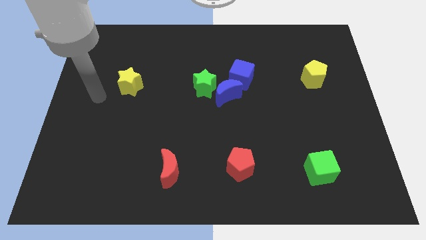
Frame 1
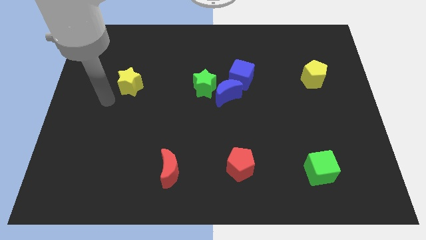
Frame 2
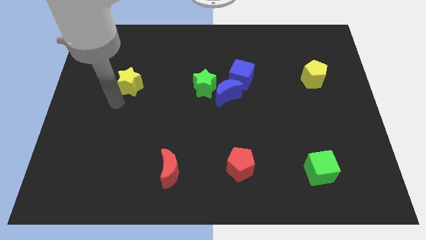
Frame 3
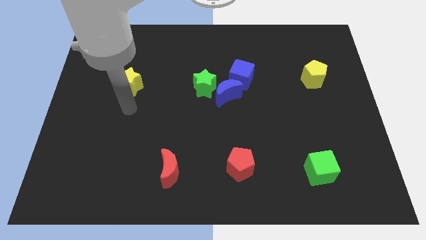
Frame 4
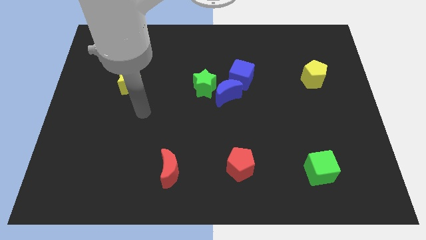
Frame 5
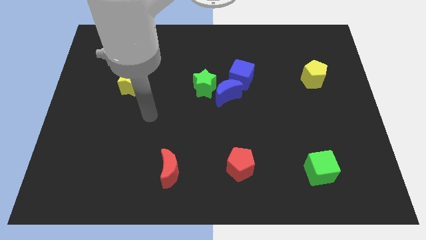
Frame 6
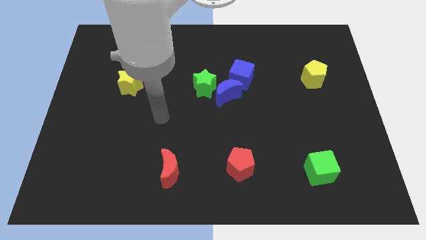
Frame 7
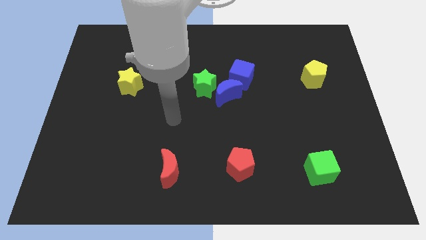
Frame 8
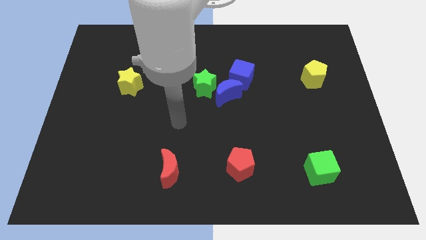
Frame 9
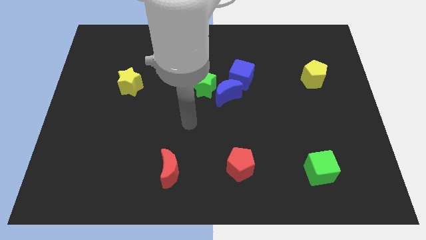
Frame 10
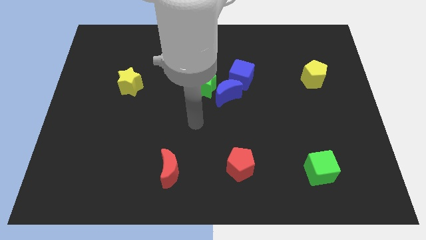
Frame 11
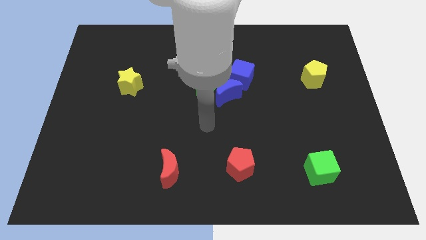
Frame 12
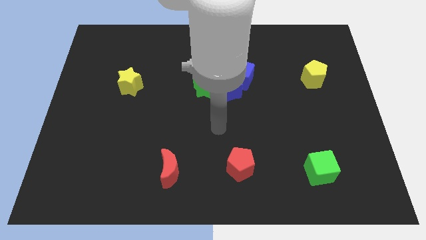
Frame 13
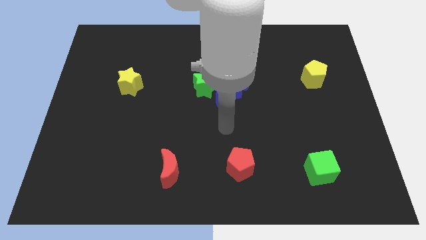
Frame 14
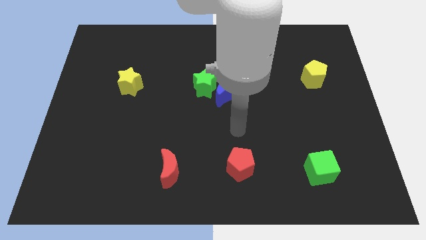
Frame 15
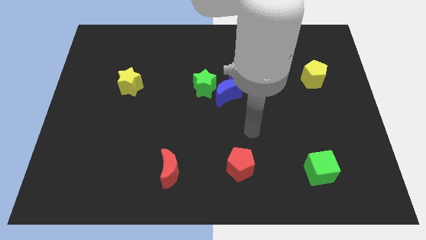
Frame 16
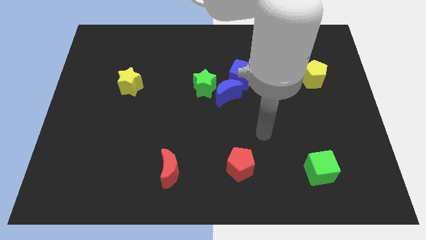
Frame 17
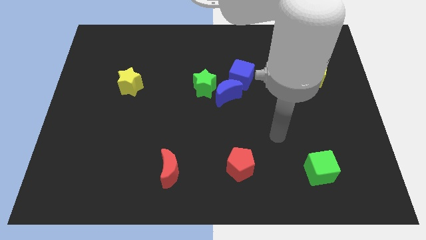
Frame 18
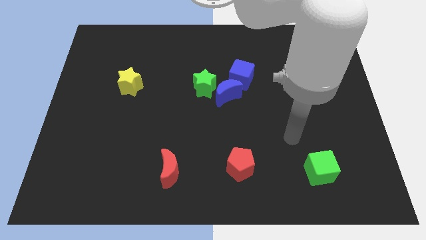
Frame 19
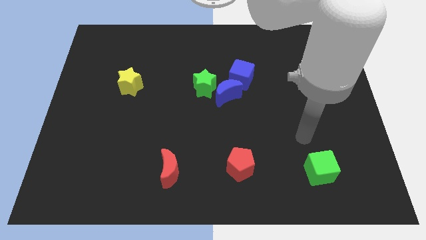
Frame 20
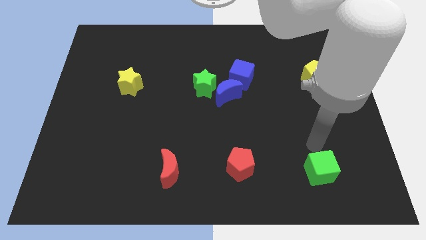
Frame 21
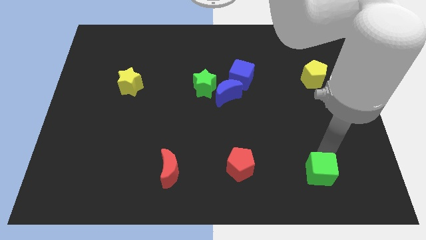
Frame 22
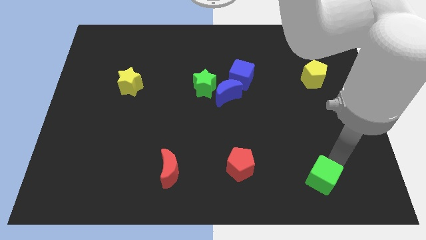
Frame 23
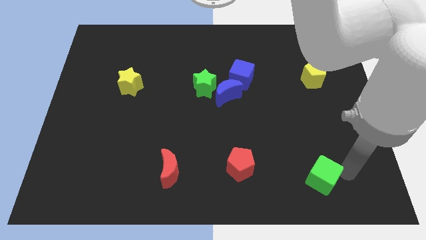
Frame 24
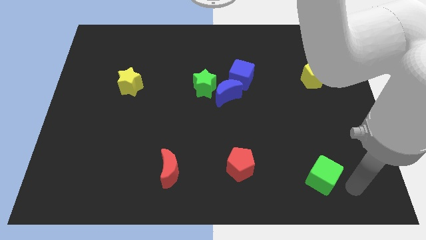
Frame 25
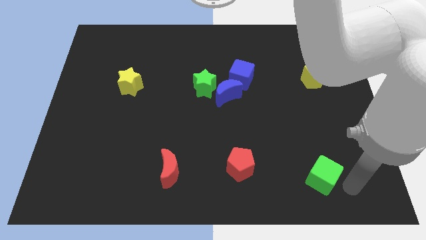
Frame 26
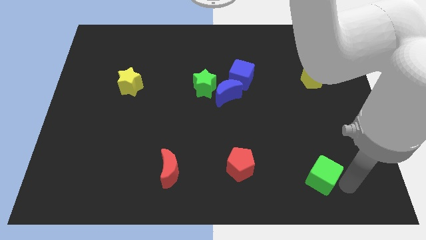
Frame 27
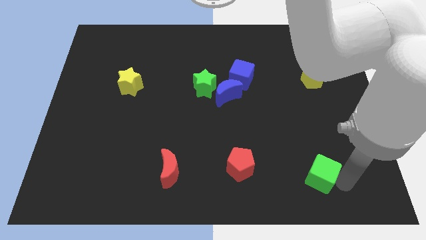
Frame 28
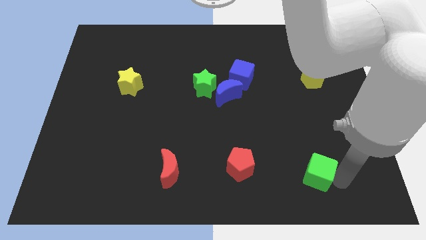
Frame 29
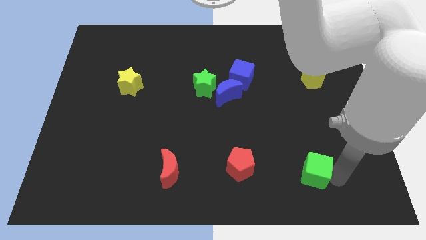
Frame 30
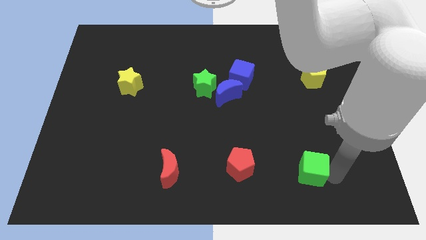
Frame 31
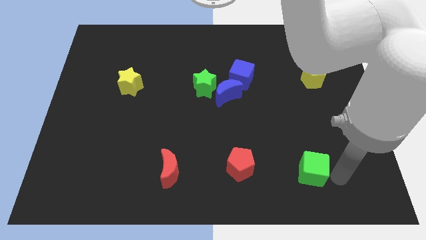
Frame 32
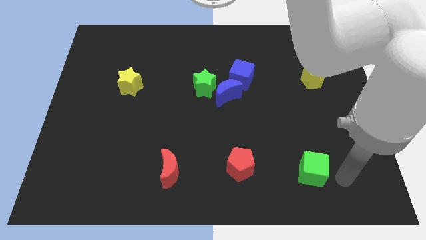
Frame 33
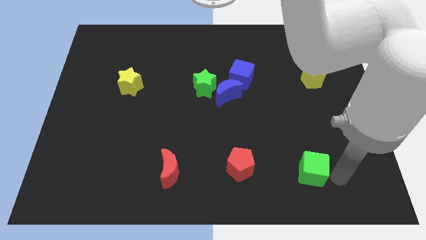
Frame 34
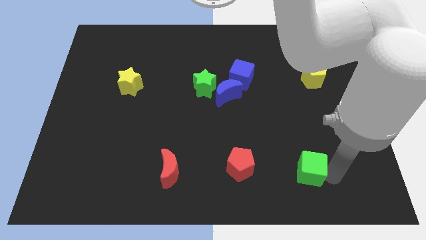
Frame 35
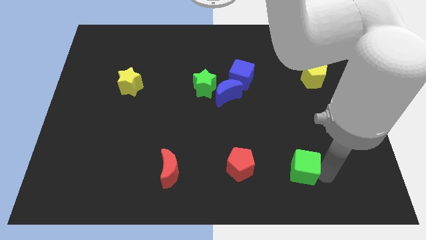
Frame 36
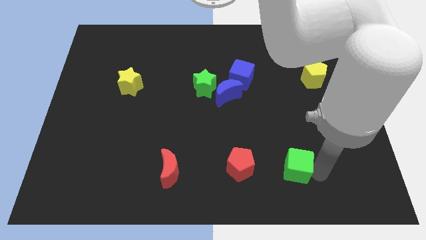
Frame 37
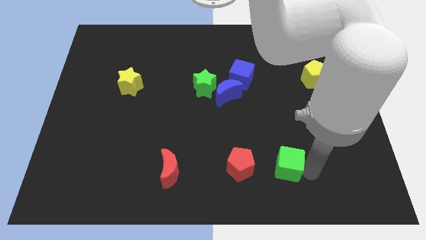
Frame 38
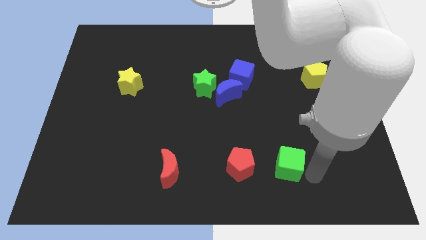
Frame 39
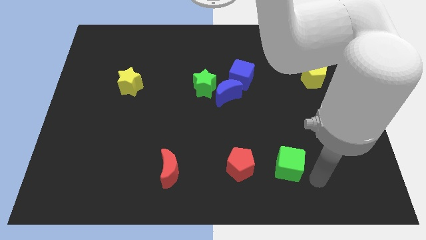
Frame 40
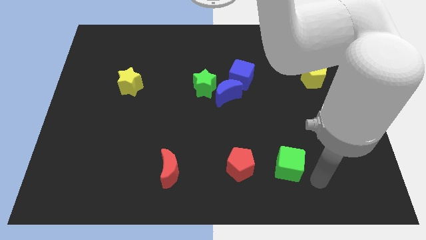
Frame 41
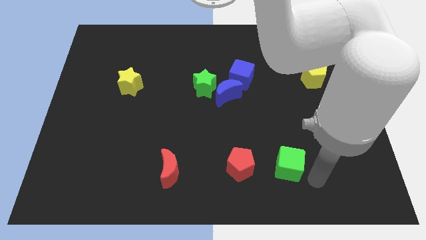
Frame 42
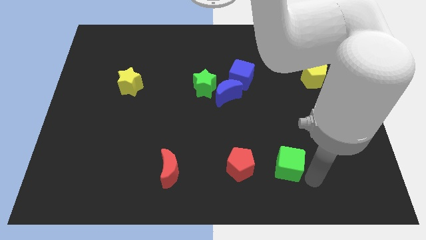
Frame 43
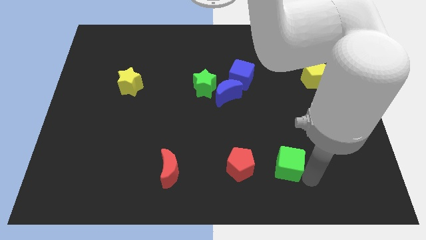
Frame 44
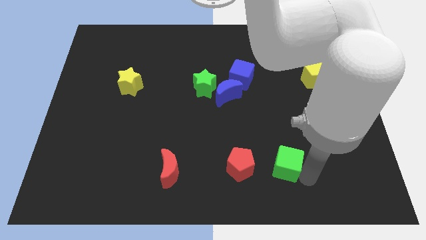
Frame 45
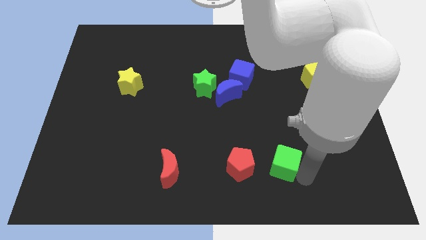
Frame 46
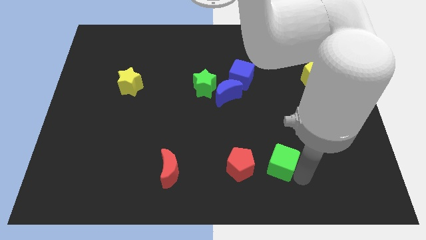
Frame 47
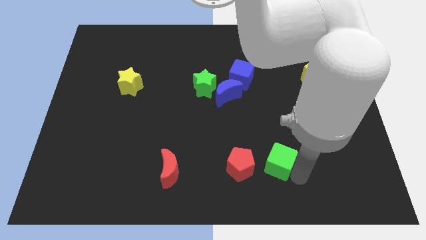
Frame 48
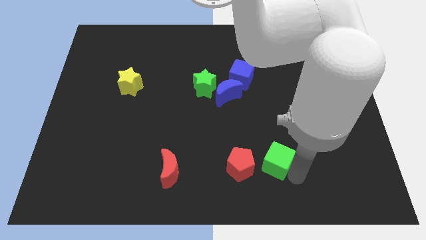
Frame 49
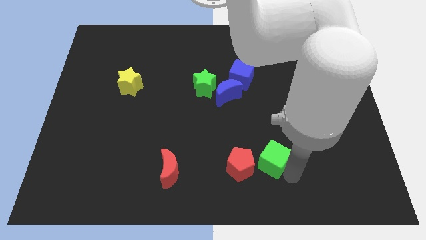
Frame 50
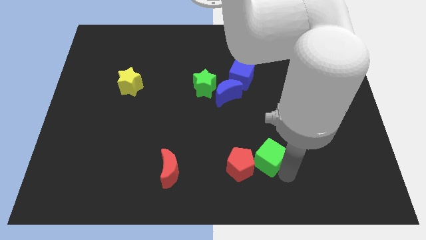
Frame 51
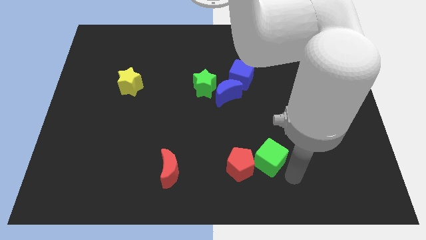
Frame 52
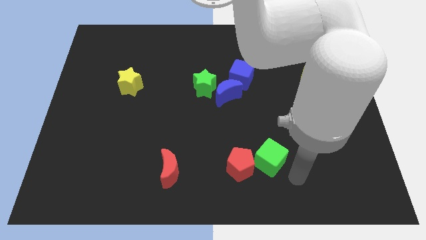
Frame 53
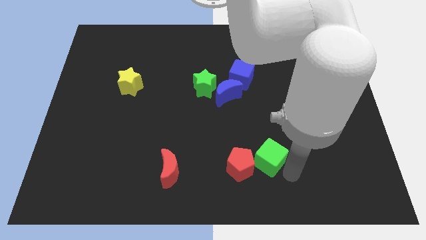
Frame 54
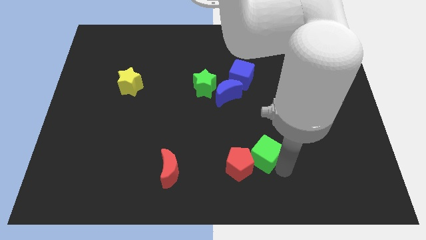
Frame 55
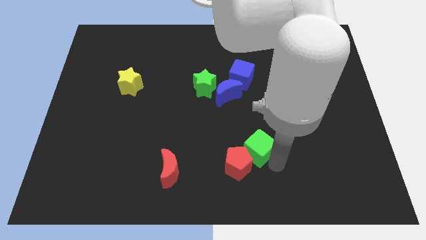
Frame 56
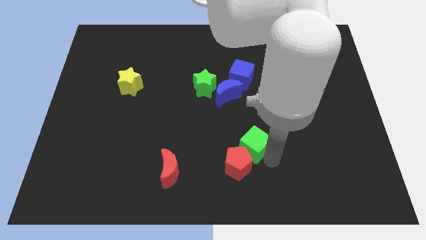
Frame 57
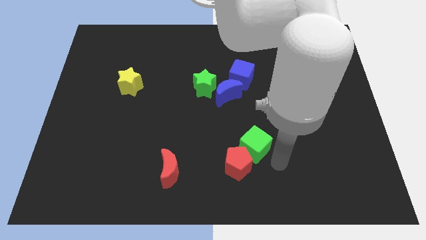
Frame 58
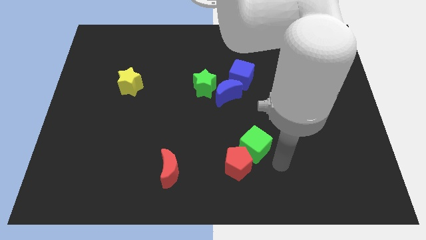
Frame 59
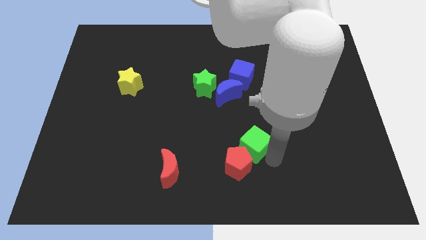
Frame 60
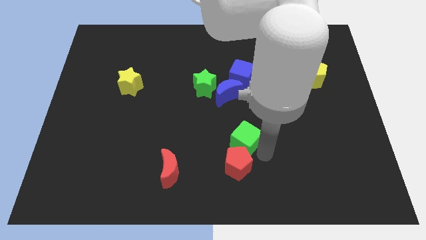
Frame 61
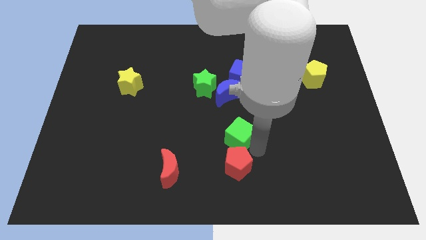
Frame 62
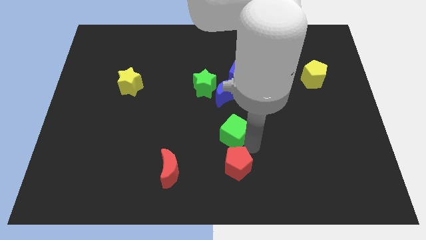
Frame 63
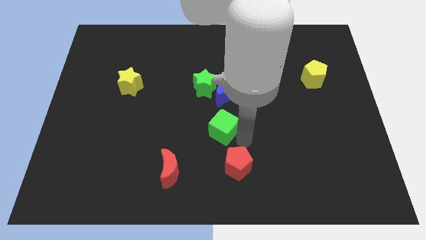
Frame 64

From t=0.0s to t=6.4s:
push the green cube to the bottom of the green star

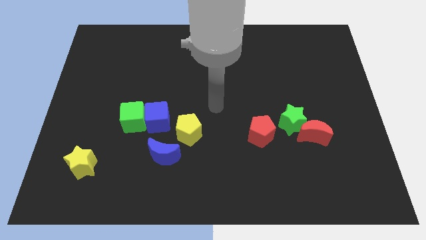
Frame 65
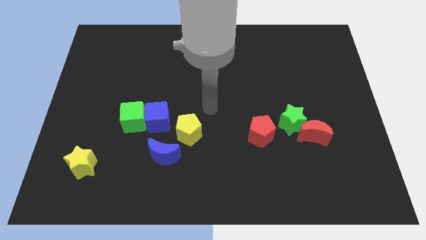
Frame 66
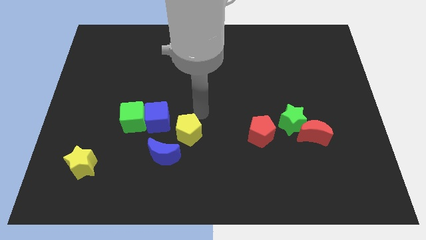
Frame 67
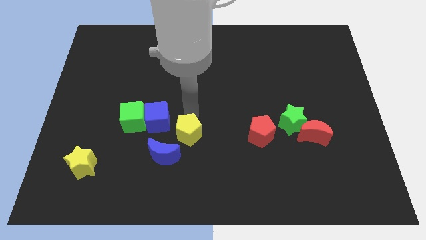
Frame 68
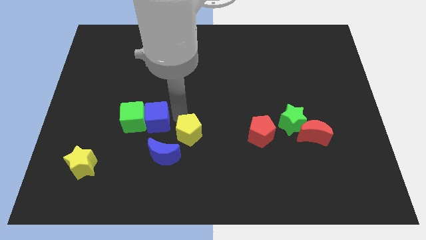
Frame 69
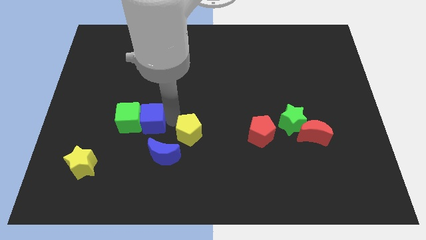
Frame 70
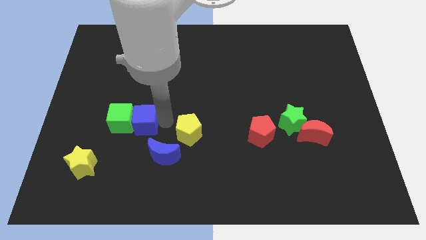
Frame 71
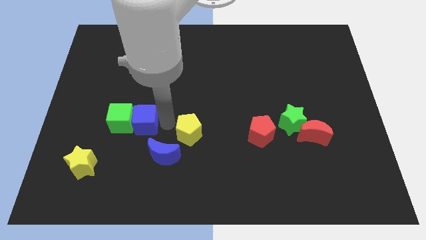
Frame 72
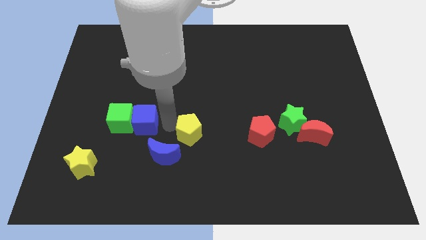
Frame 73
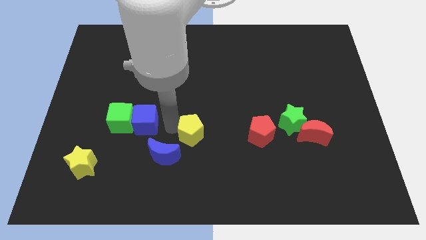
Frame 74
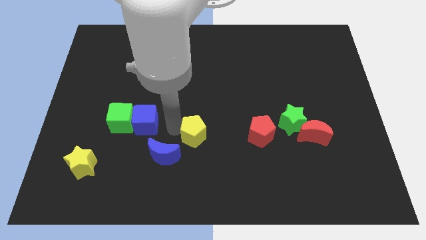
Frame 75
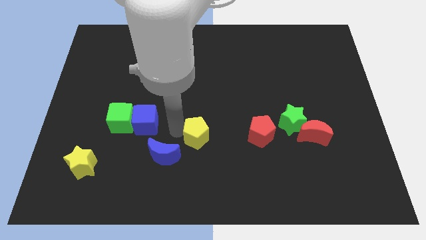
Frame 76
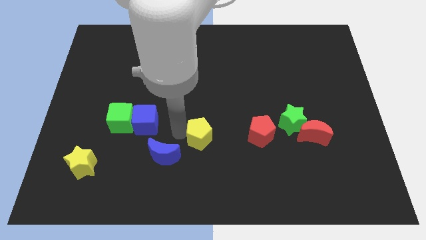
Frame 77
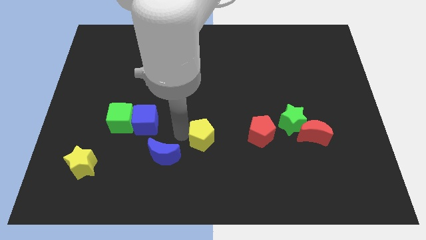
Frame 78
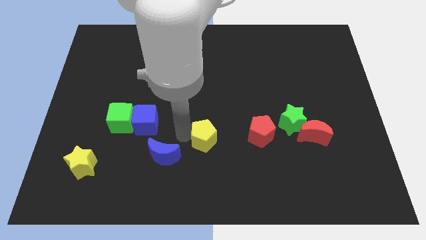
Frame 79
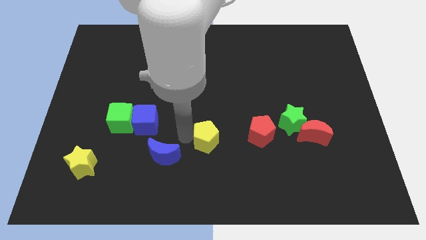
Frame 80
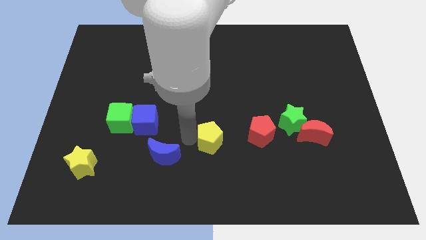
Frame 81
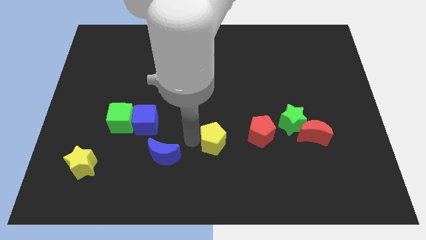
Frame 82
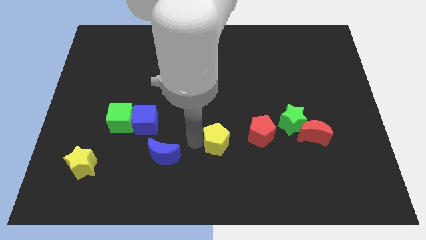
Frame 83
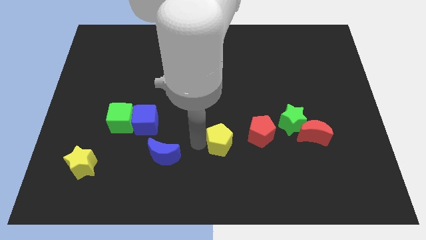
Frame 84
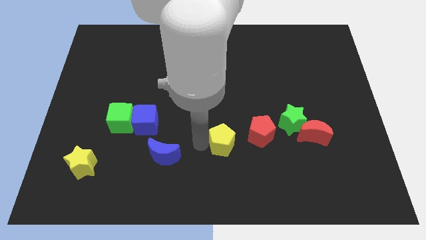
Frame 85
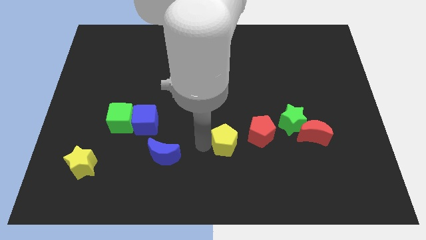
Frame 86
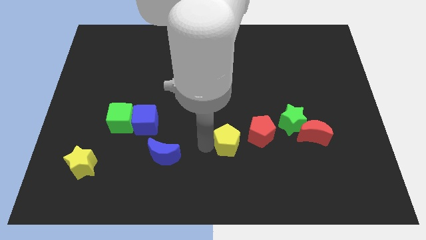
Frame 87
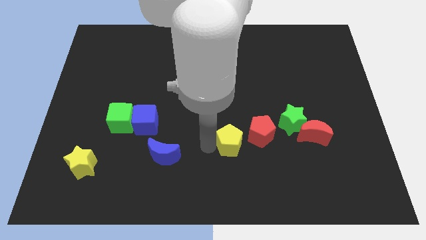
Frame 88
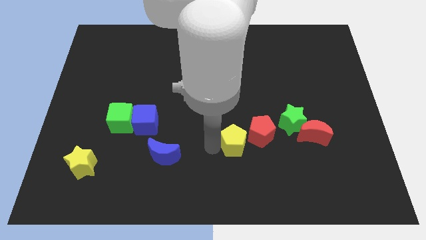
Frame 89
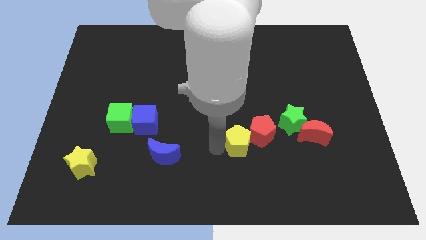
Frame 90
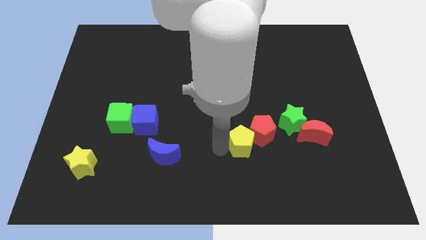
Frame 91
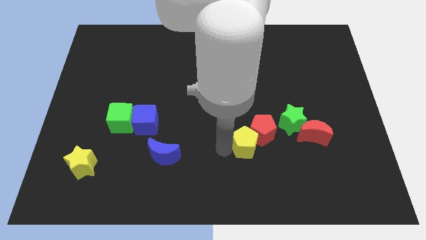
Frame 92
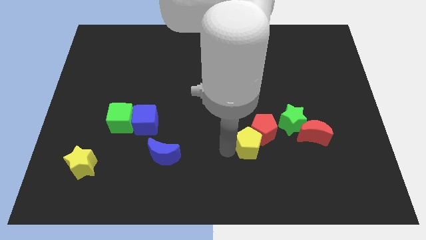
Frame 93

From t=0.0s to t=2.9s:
move the yellow pentagon to the bottom left of the green star
